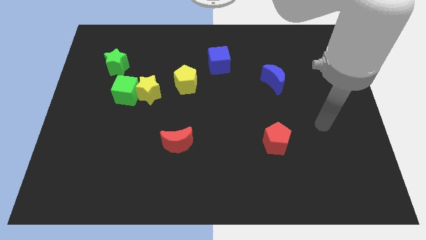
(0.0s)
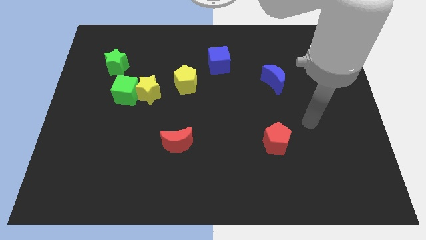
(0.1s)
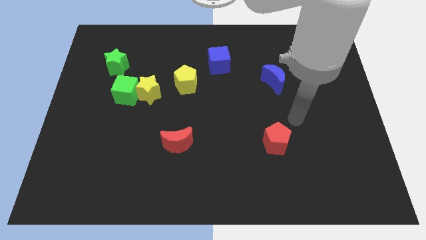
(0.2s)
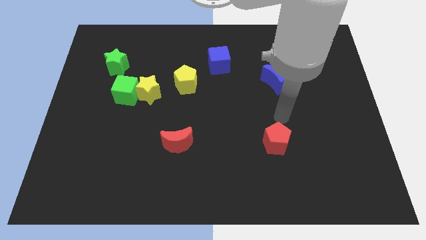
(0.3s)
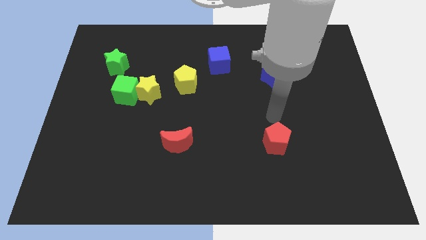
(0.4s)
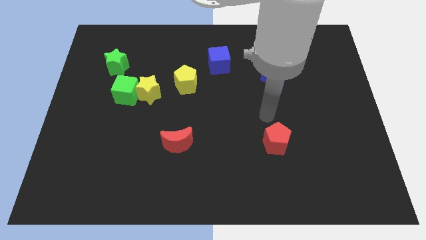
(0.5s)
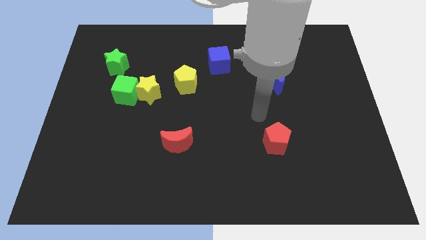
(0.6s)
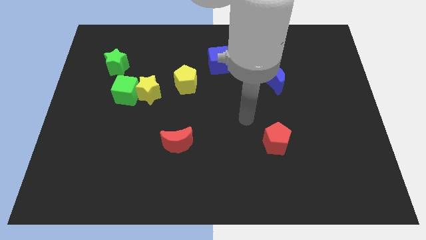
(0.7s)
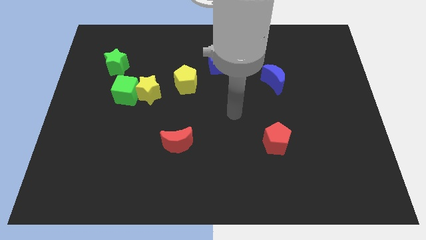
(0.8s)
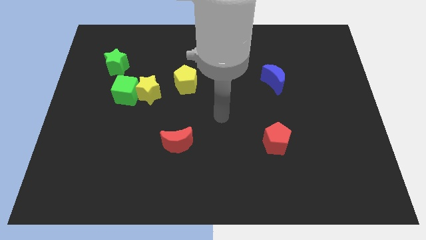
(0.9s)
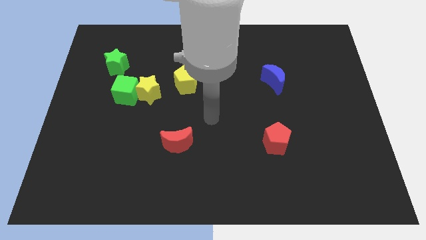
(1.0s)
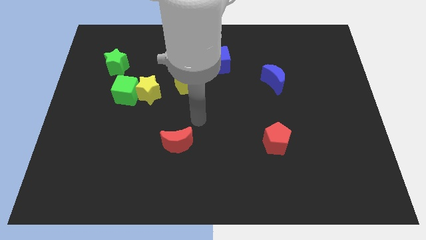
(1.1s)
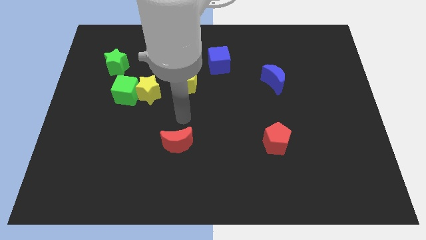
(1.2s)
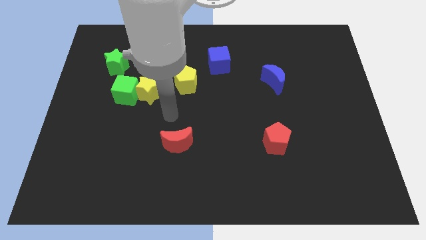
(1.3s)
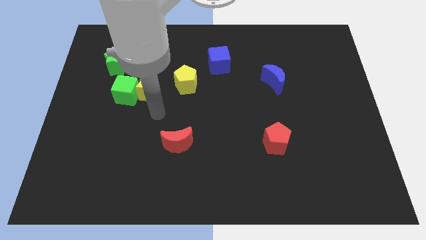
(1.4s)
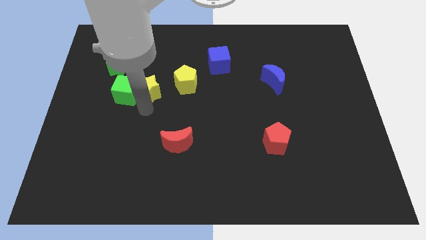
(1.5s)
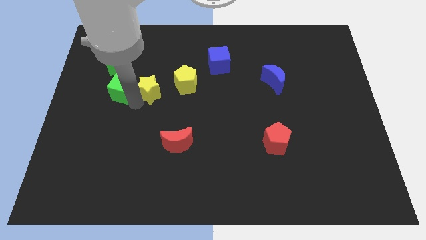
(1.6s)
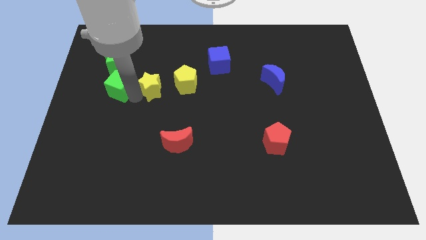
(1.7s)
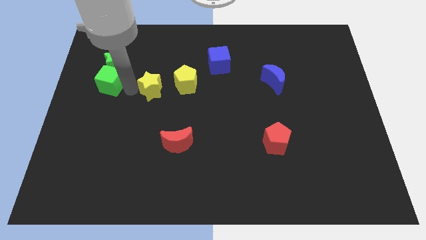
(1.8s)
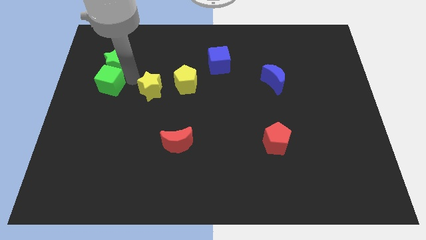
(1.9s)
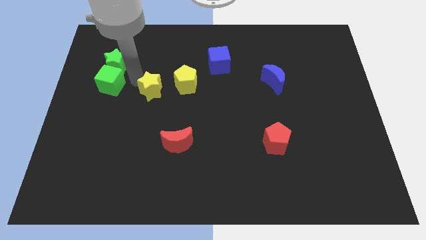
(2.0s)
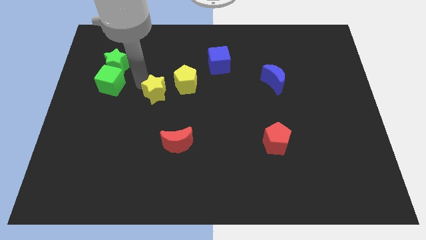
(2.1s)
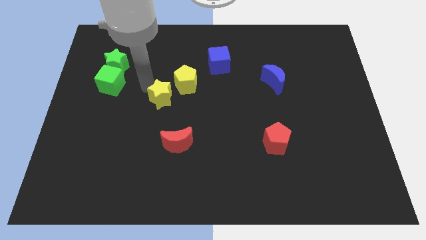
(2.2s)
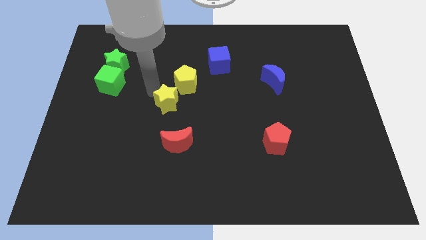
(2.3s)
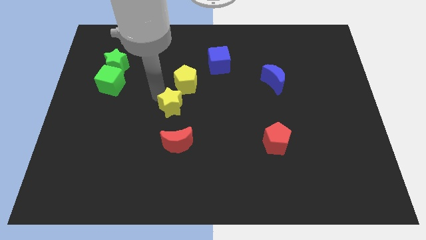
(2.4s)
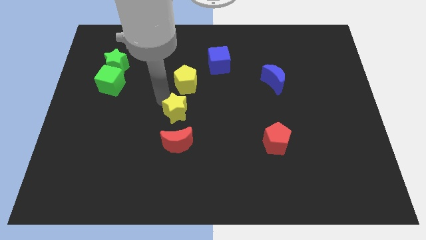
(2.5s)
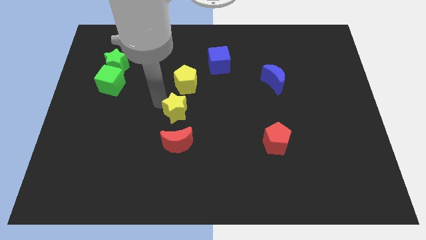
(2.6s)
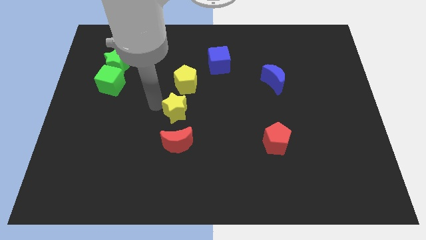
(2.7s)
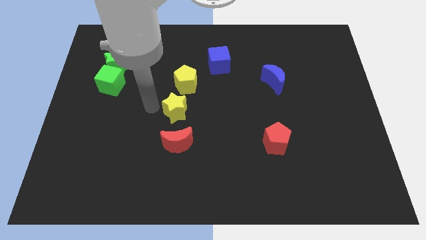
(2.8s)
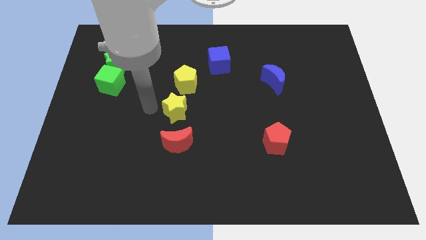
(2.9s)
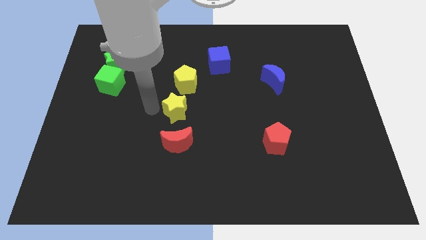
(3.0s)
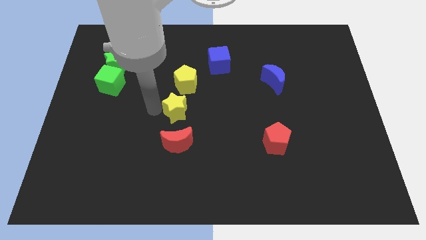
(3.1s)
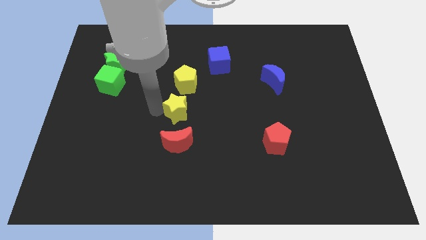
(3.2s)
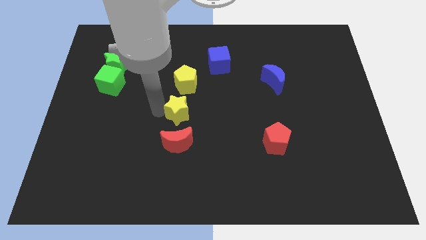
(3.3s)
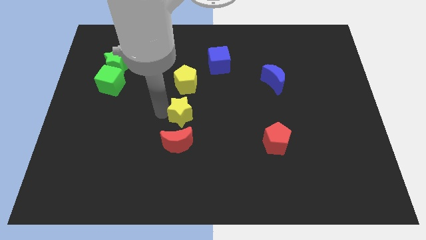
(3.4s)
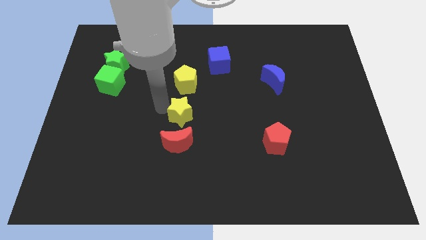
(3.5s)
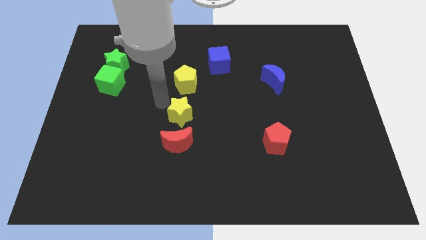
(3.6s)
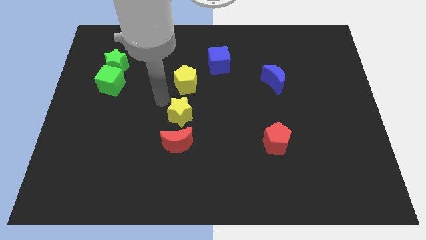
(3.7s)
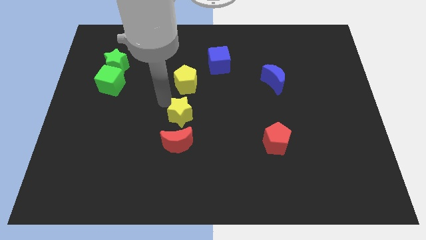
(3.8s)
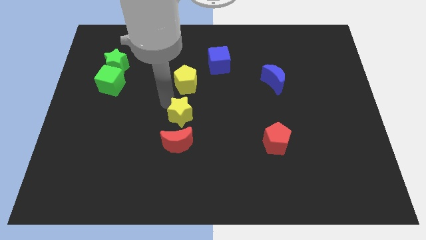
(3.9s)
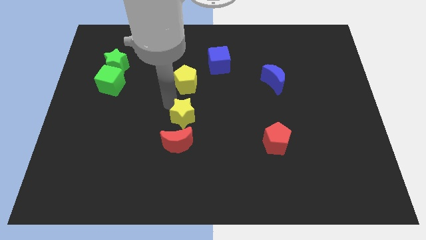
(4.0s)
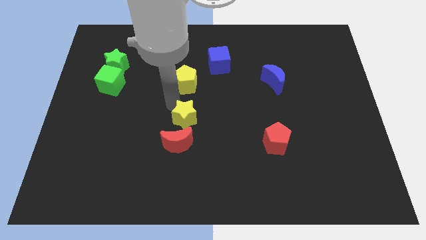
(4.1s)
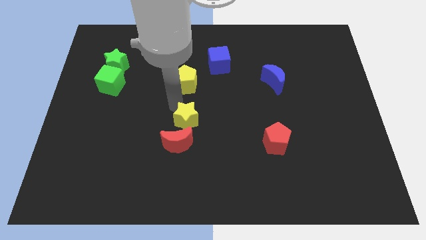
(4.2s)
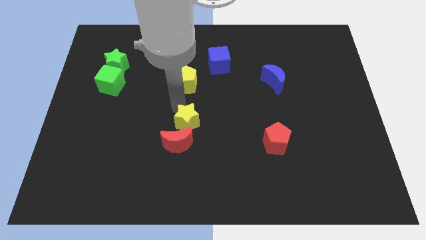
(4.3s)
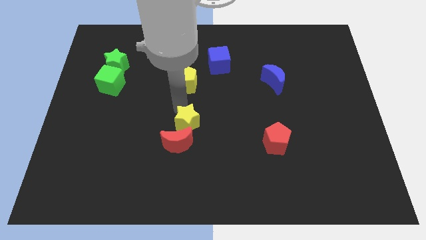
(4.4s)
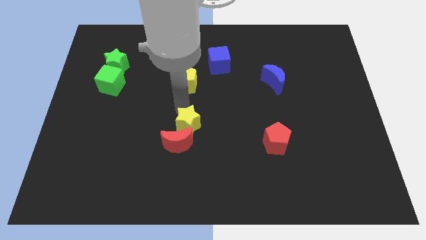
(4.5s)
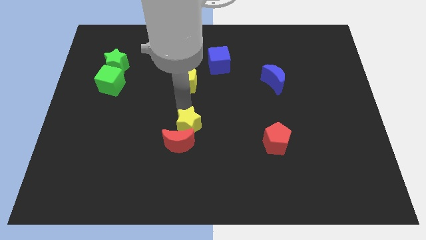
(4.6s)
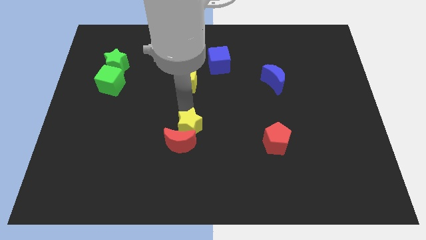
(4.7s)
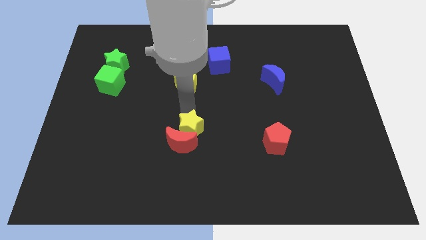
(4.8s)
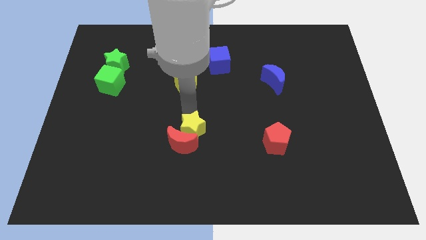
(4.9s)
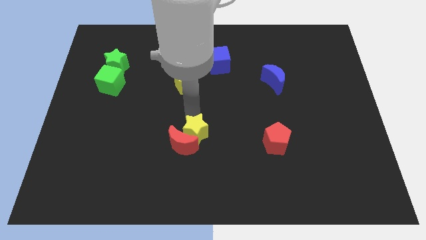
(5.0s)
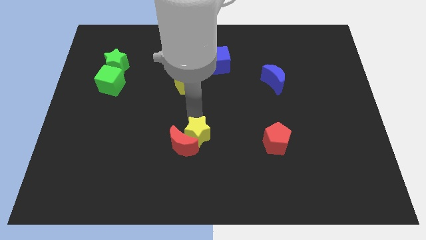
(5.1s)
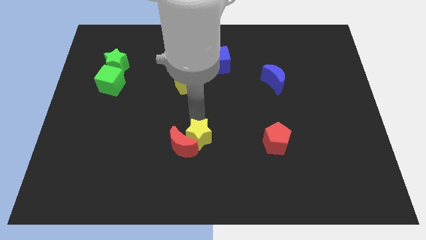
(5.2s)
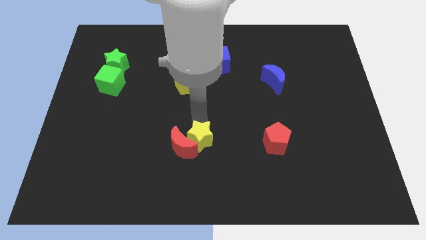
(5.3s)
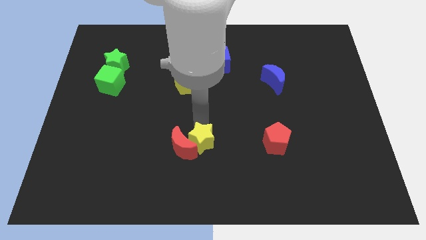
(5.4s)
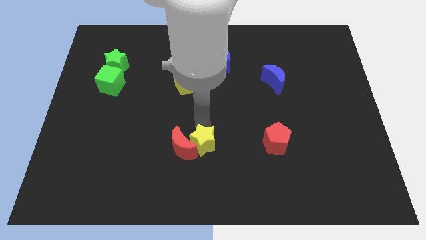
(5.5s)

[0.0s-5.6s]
push the yellow star down and right diagonally

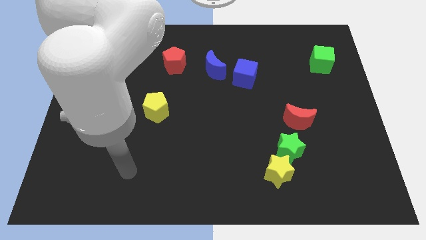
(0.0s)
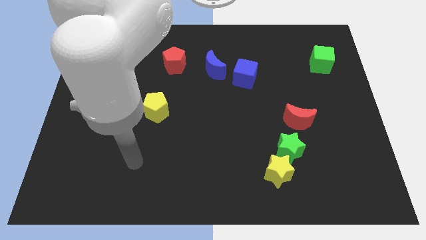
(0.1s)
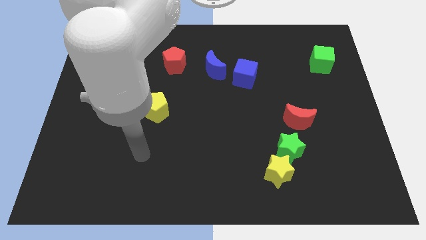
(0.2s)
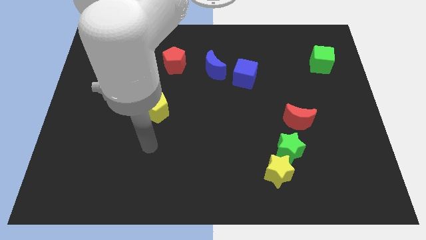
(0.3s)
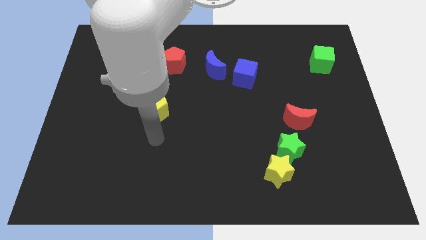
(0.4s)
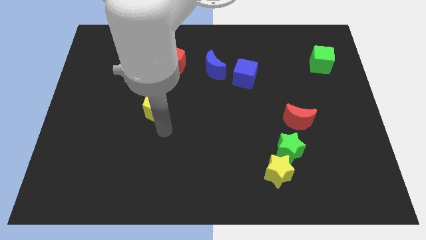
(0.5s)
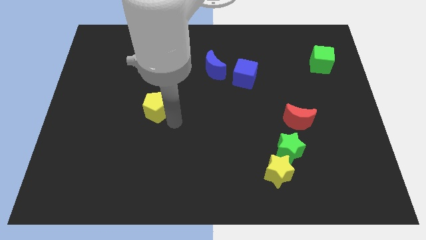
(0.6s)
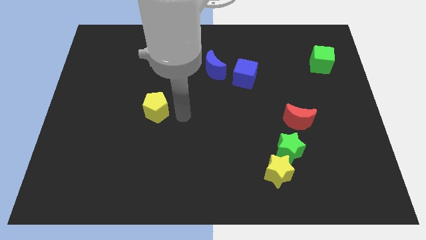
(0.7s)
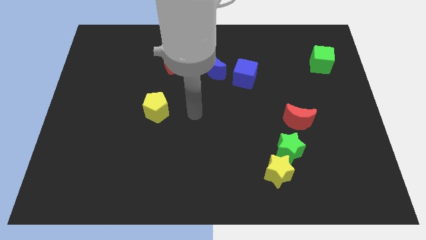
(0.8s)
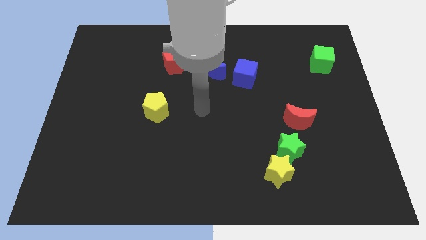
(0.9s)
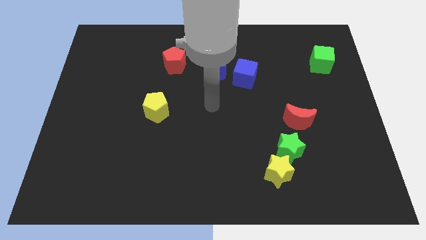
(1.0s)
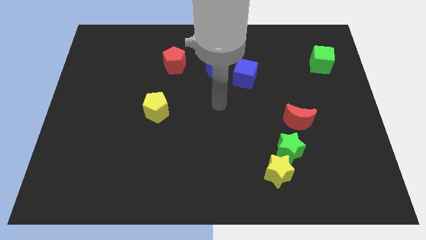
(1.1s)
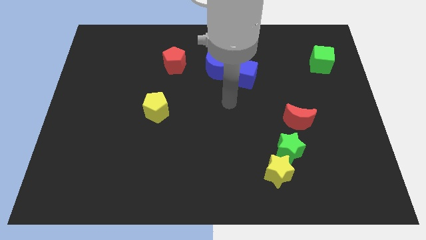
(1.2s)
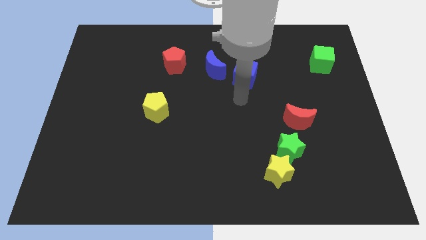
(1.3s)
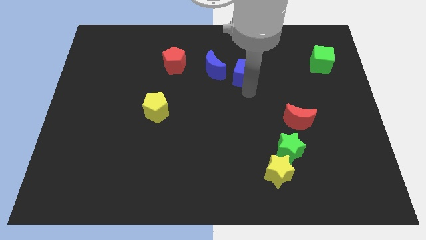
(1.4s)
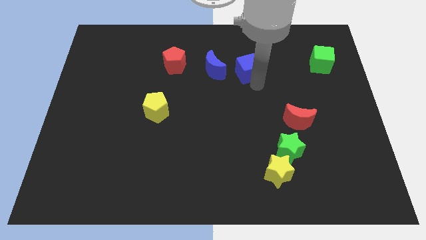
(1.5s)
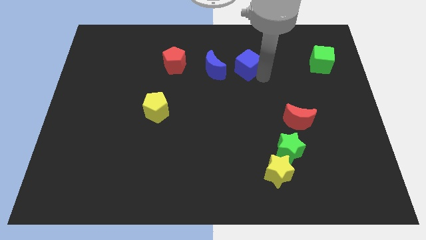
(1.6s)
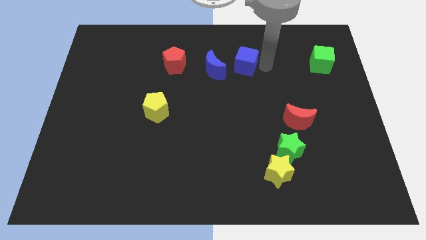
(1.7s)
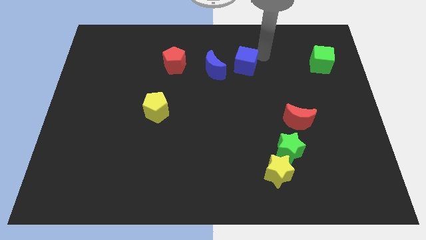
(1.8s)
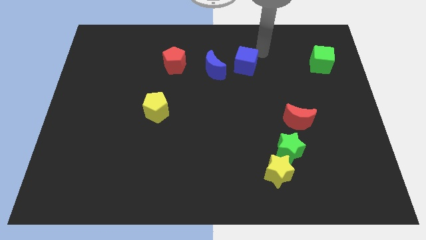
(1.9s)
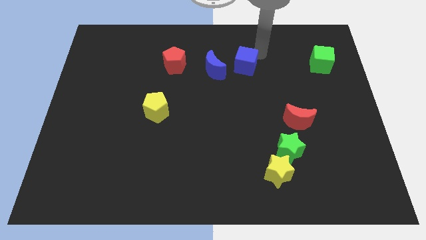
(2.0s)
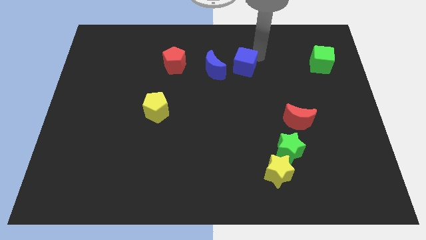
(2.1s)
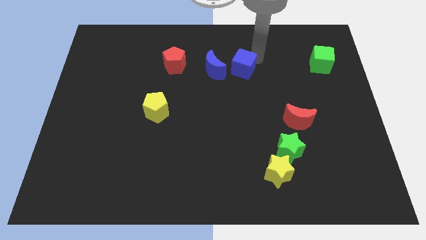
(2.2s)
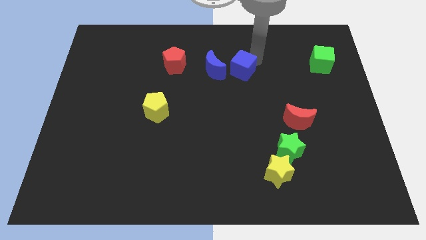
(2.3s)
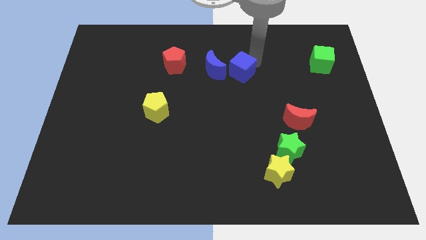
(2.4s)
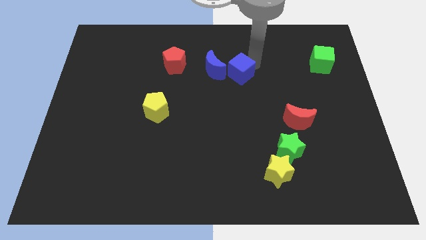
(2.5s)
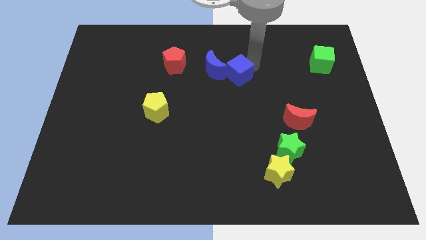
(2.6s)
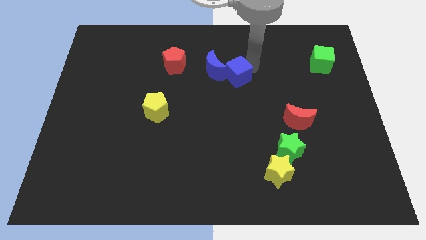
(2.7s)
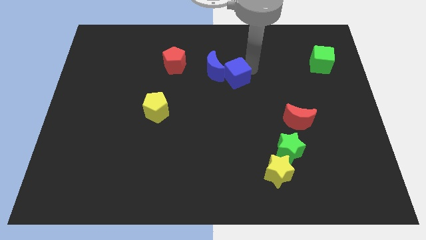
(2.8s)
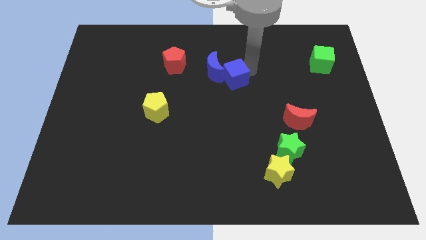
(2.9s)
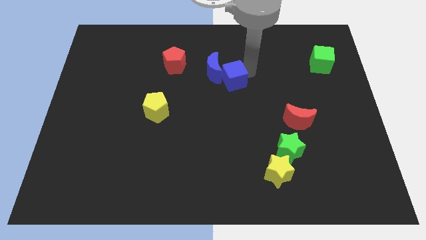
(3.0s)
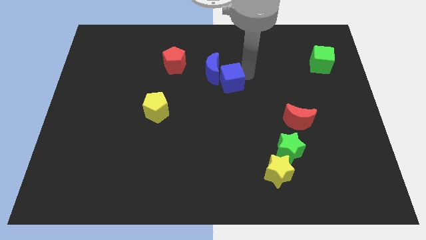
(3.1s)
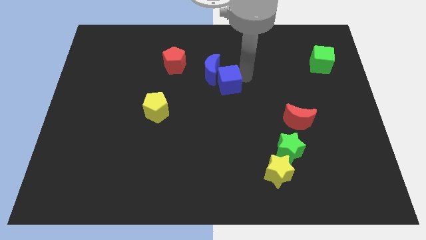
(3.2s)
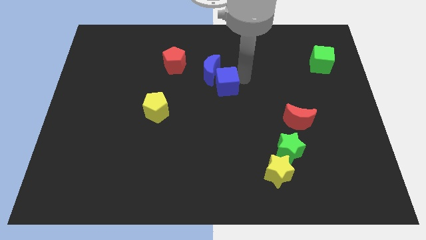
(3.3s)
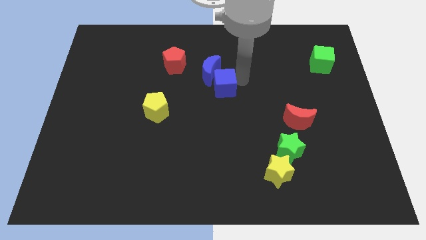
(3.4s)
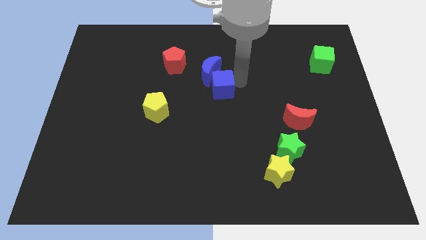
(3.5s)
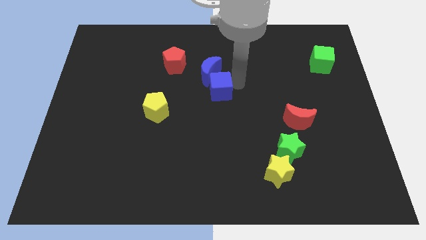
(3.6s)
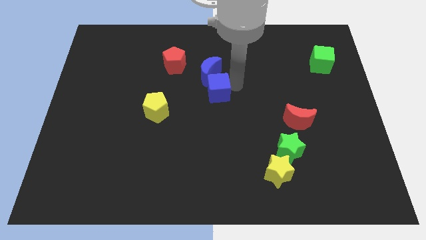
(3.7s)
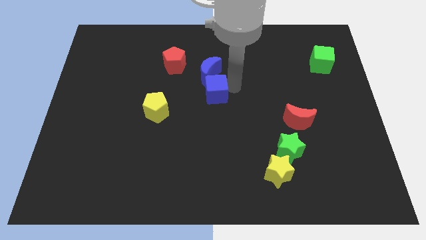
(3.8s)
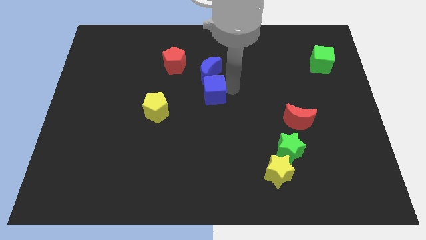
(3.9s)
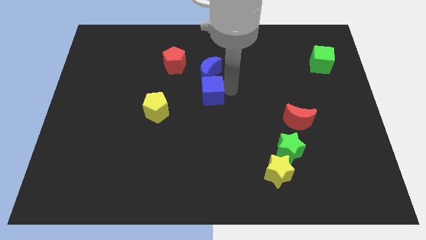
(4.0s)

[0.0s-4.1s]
push the blue cube to the left slightly
